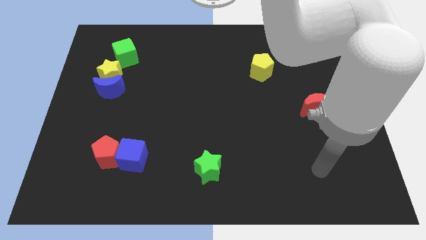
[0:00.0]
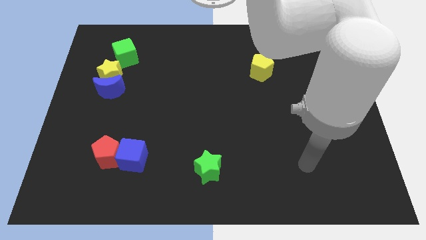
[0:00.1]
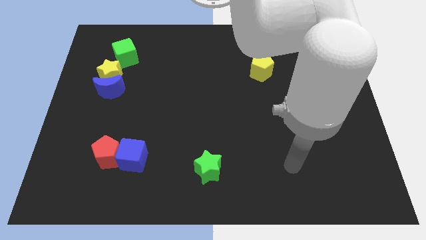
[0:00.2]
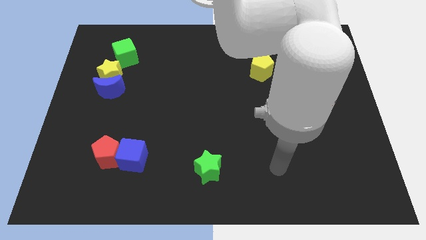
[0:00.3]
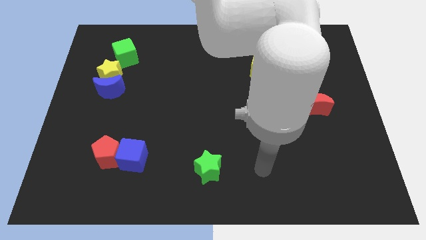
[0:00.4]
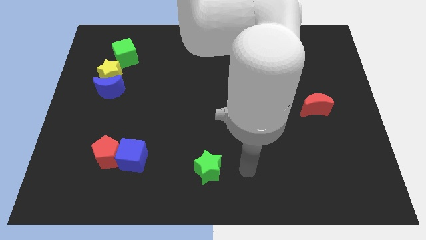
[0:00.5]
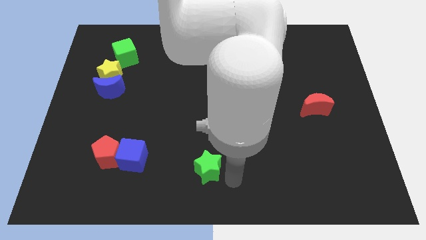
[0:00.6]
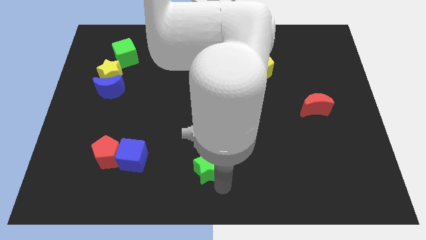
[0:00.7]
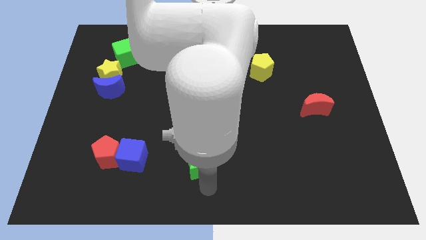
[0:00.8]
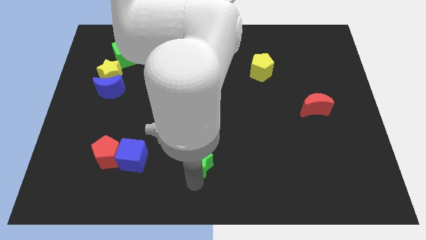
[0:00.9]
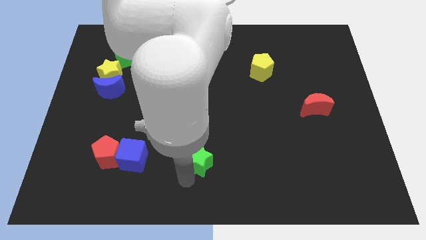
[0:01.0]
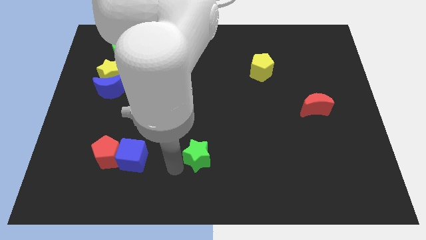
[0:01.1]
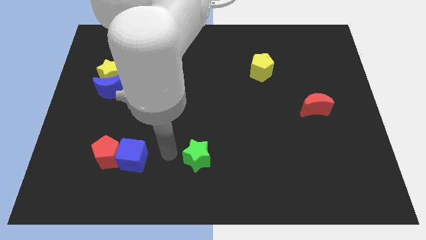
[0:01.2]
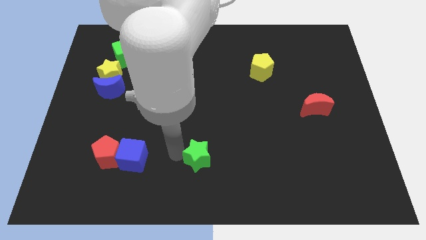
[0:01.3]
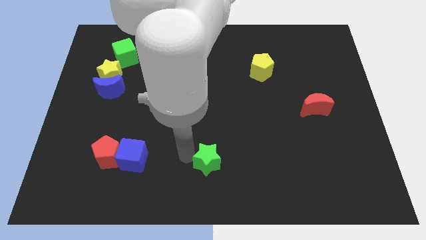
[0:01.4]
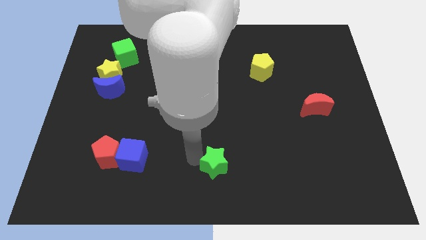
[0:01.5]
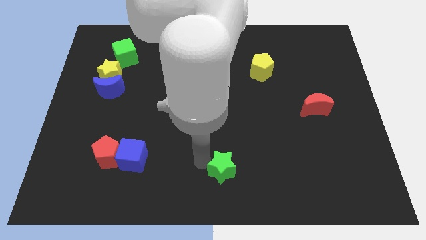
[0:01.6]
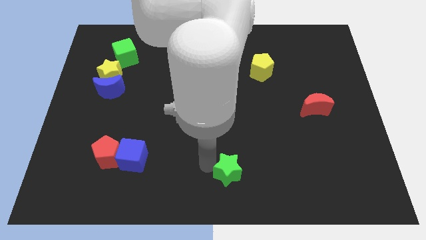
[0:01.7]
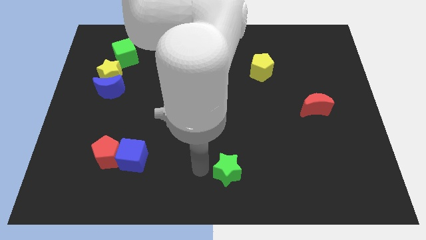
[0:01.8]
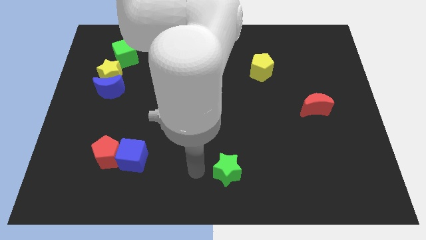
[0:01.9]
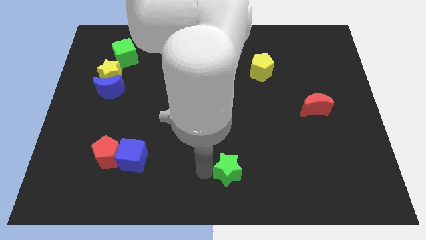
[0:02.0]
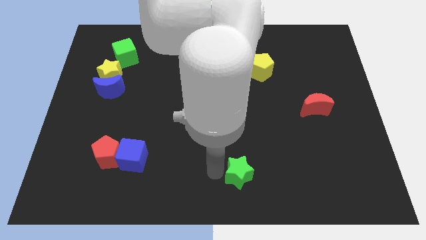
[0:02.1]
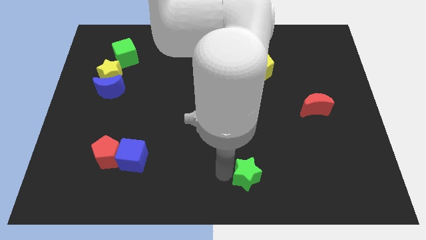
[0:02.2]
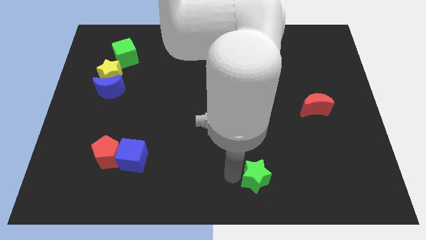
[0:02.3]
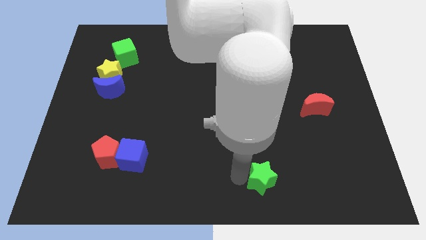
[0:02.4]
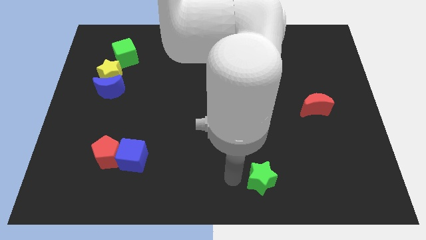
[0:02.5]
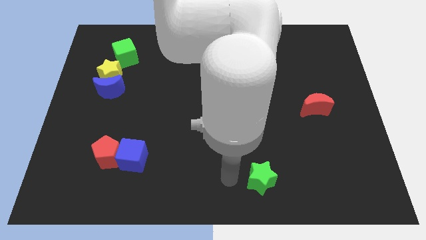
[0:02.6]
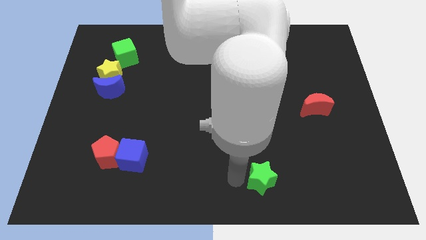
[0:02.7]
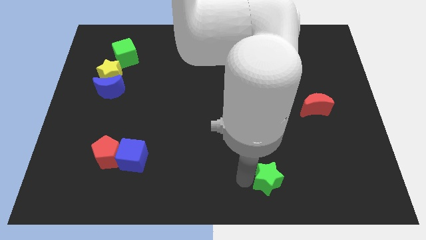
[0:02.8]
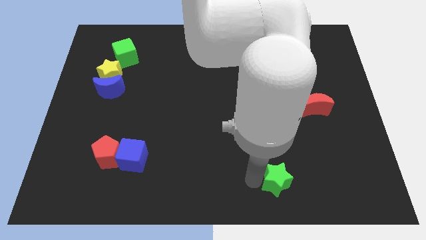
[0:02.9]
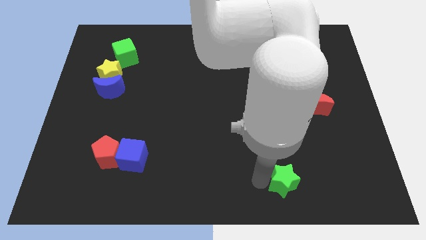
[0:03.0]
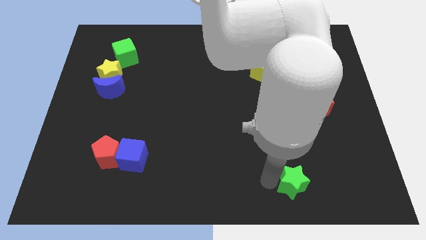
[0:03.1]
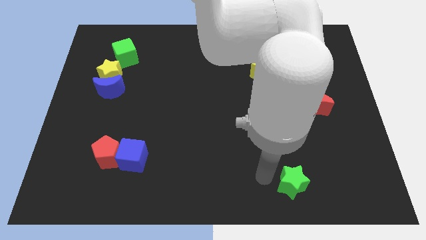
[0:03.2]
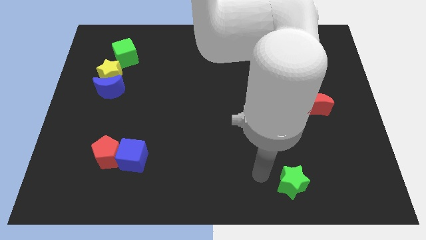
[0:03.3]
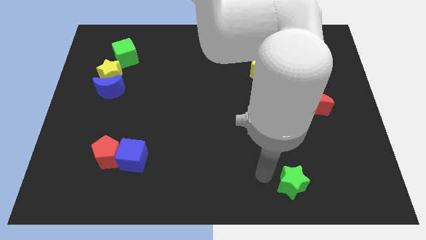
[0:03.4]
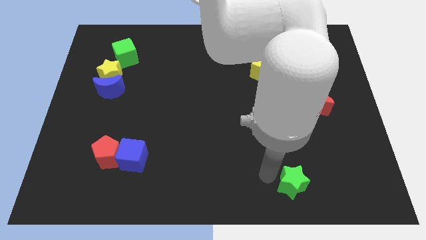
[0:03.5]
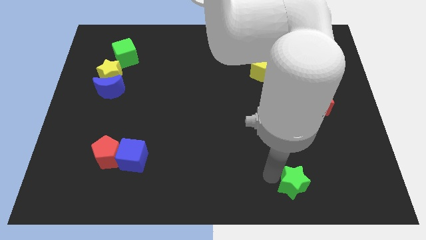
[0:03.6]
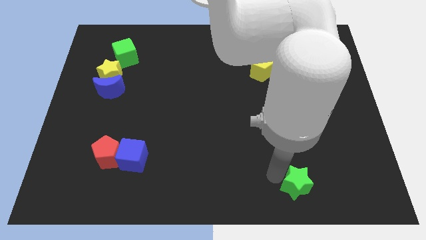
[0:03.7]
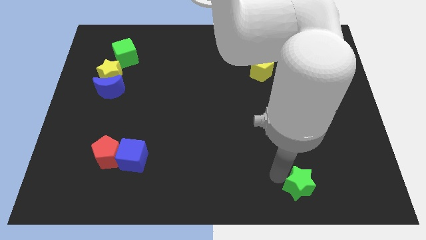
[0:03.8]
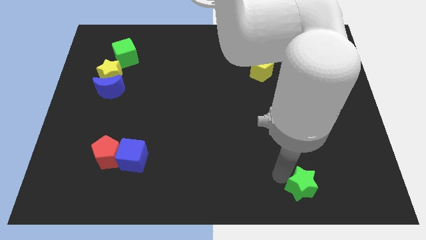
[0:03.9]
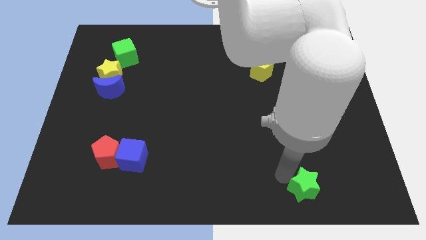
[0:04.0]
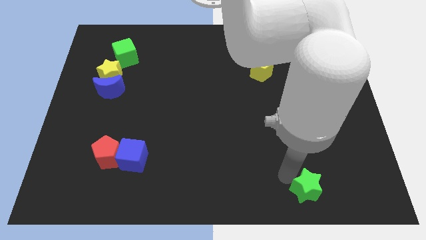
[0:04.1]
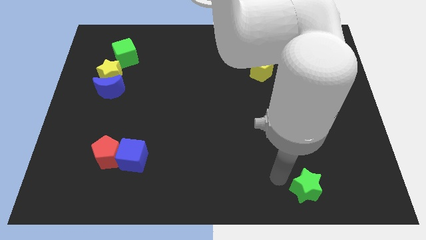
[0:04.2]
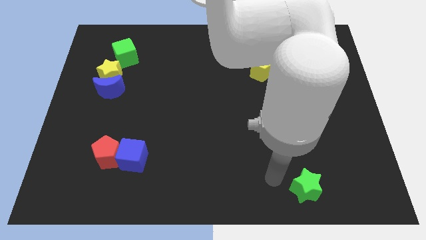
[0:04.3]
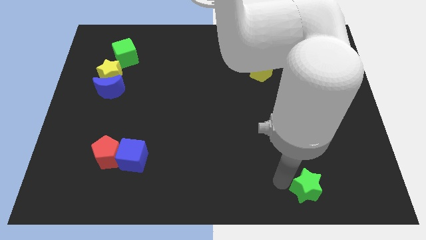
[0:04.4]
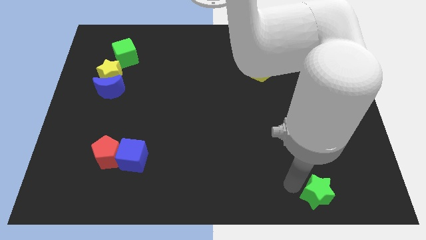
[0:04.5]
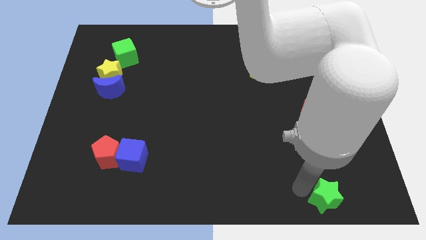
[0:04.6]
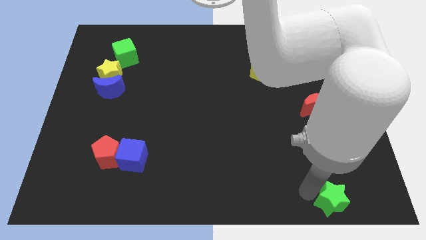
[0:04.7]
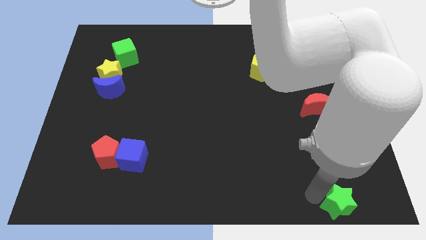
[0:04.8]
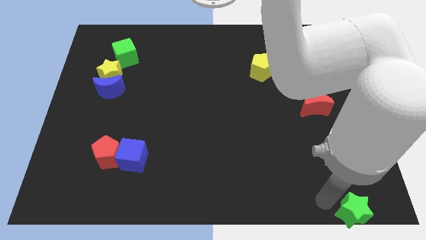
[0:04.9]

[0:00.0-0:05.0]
push the green star to the bottom right of the board

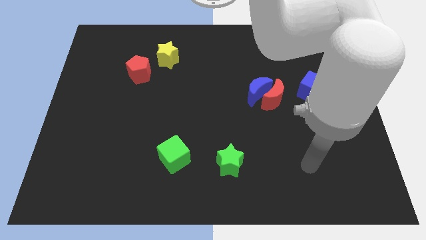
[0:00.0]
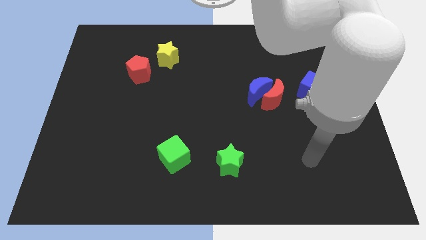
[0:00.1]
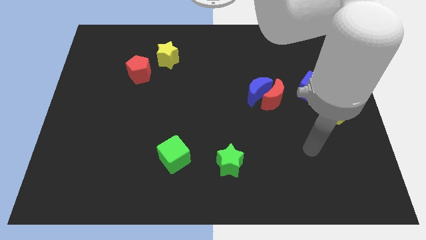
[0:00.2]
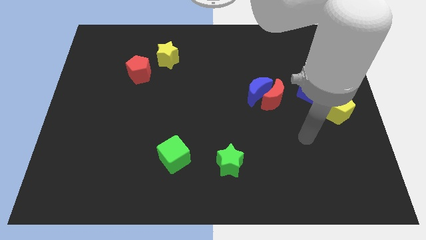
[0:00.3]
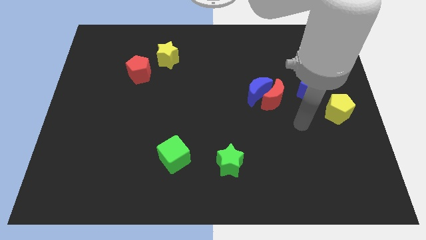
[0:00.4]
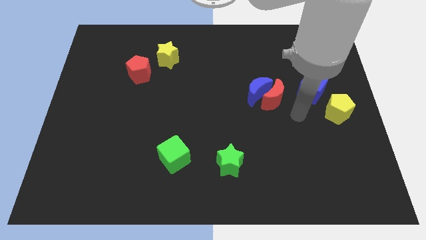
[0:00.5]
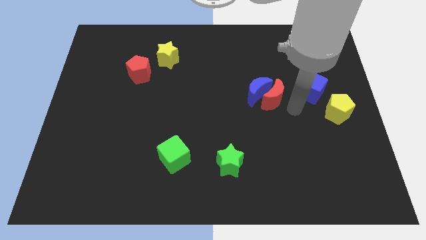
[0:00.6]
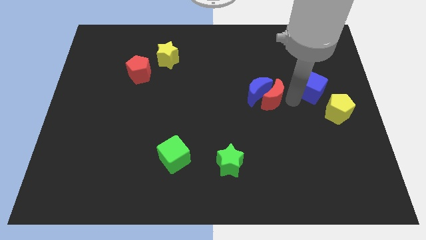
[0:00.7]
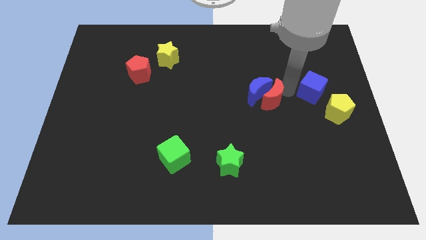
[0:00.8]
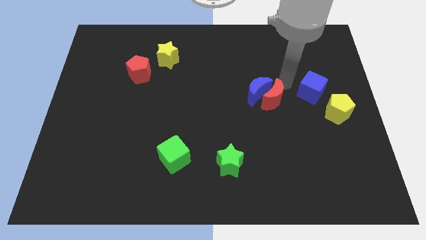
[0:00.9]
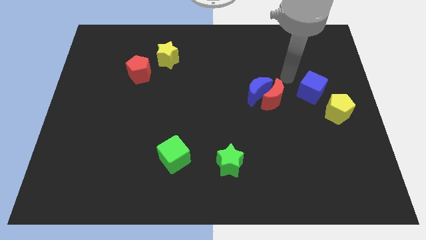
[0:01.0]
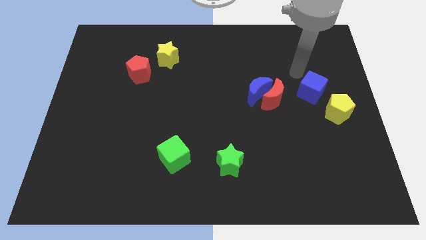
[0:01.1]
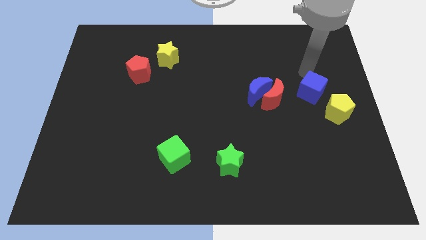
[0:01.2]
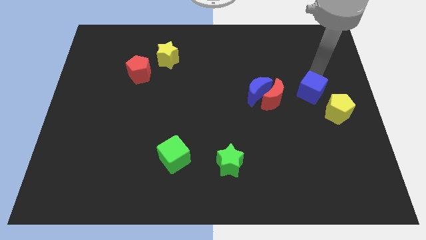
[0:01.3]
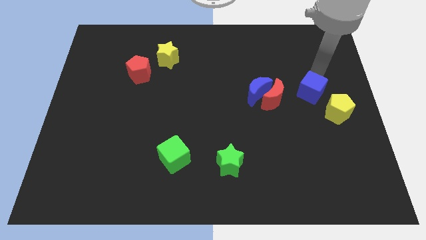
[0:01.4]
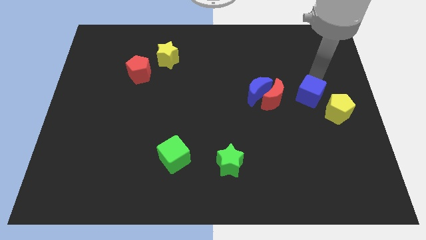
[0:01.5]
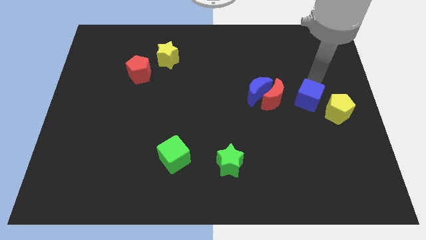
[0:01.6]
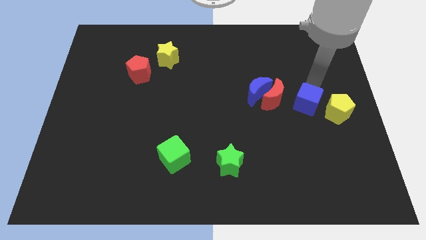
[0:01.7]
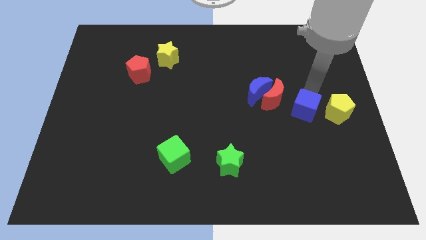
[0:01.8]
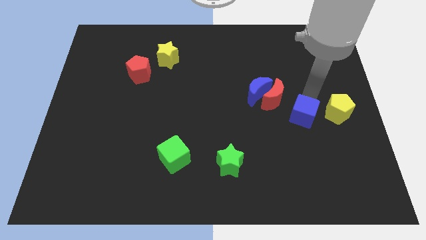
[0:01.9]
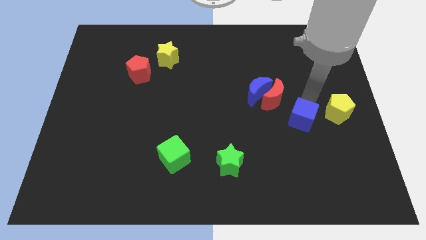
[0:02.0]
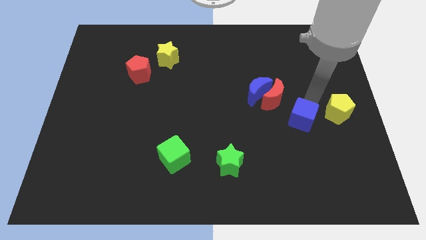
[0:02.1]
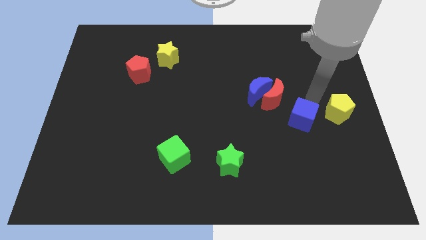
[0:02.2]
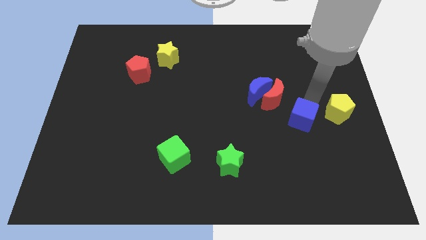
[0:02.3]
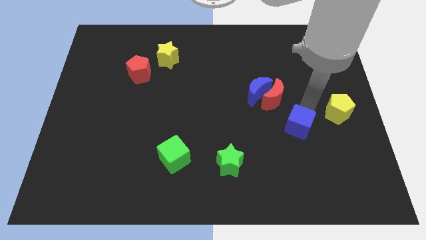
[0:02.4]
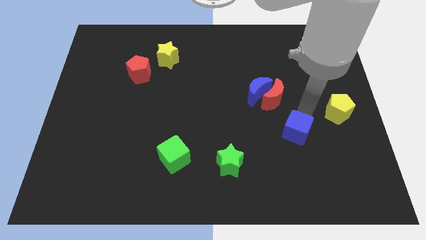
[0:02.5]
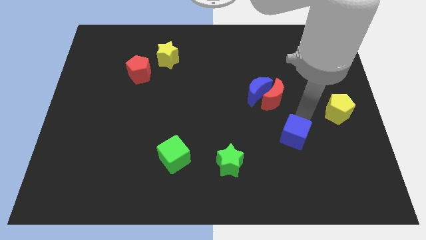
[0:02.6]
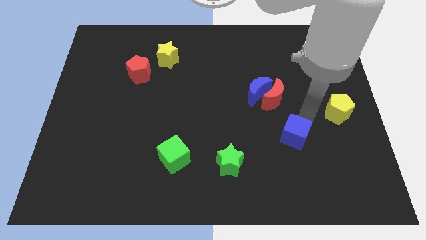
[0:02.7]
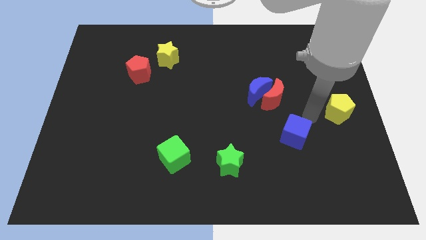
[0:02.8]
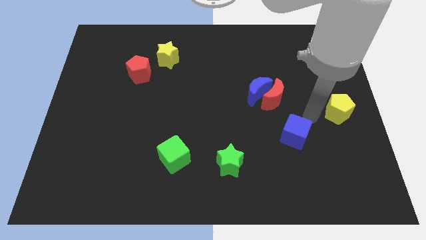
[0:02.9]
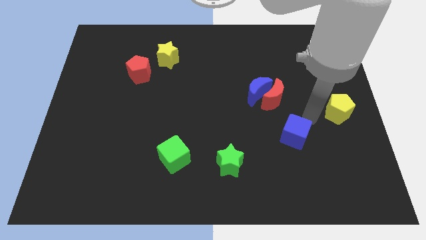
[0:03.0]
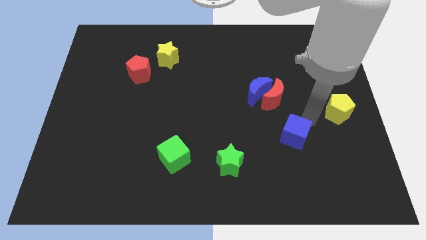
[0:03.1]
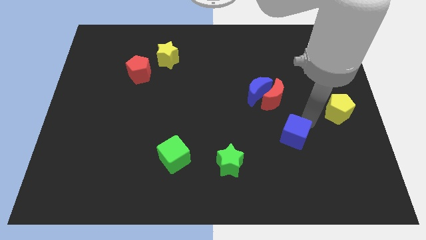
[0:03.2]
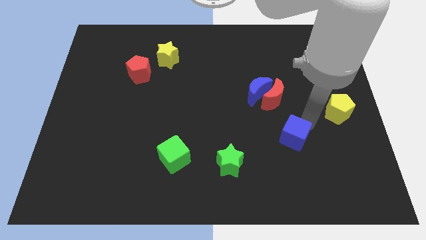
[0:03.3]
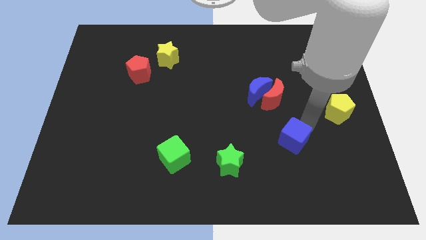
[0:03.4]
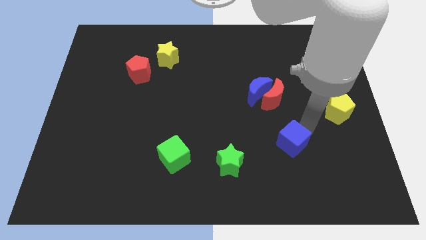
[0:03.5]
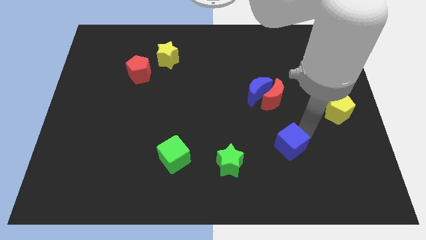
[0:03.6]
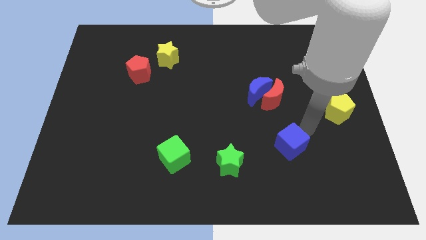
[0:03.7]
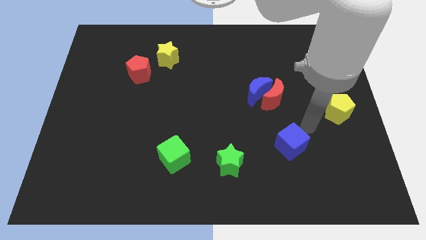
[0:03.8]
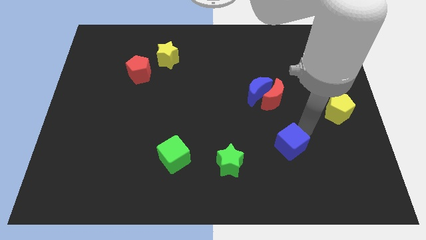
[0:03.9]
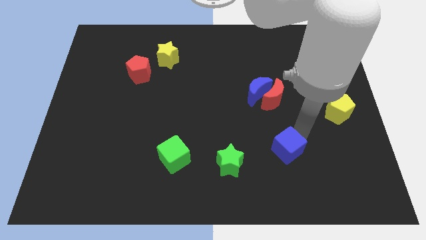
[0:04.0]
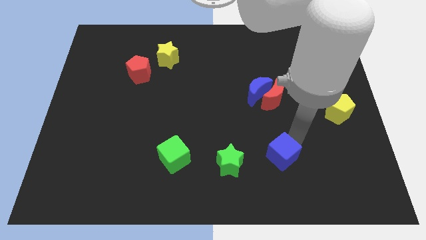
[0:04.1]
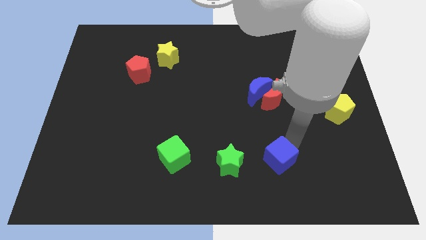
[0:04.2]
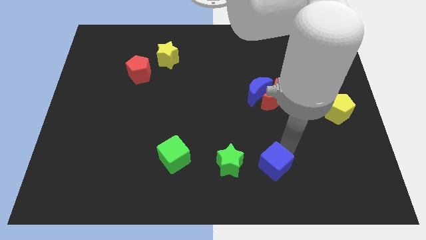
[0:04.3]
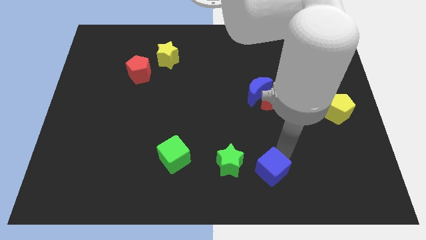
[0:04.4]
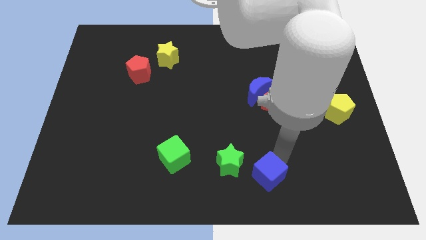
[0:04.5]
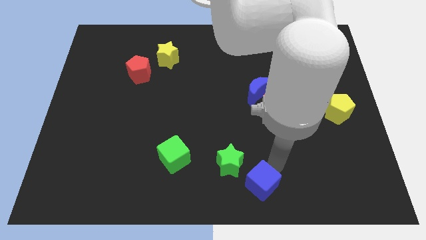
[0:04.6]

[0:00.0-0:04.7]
move the blue cube to the bottom
